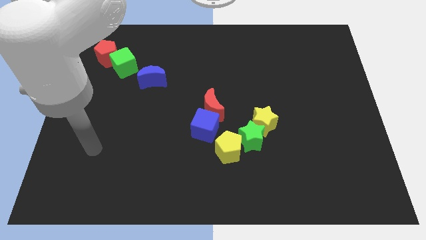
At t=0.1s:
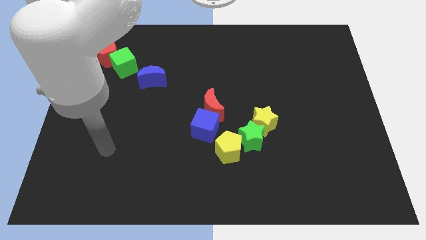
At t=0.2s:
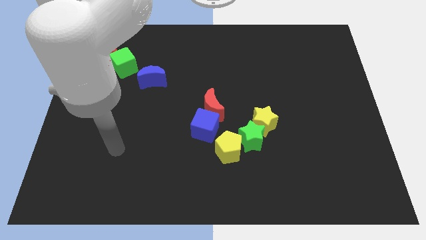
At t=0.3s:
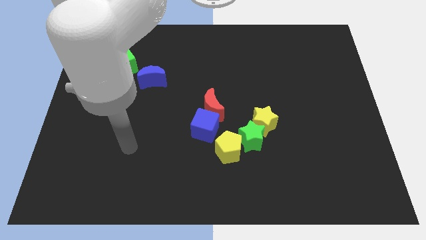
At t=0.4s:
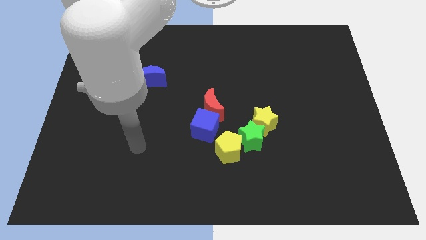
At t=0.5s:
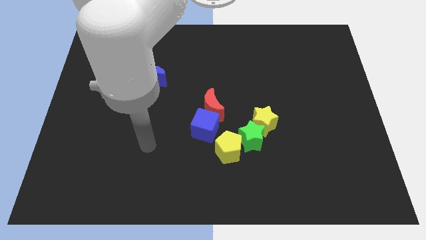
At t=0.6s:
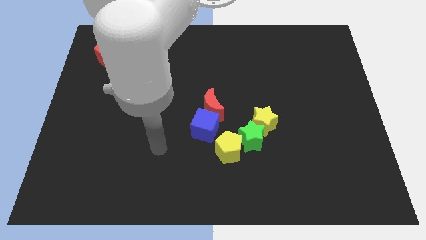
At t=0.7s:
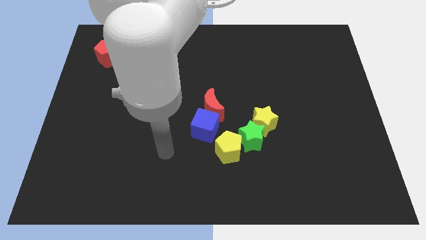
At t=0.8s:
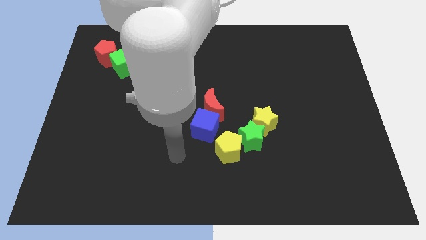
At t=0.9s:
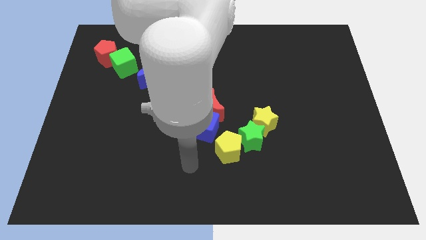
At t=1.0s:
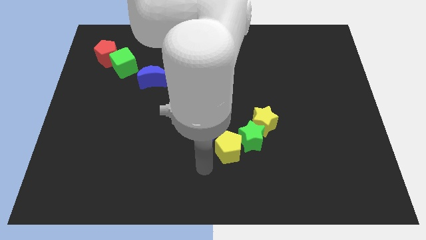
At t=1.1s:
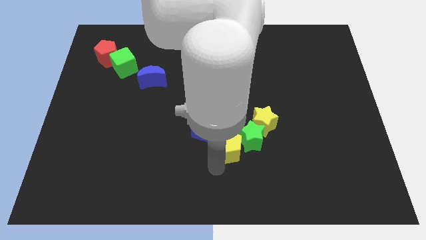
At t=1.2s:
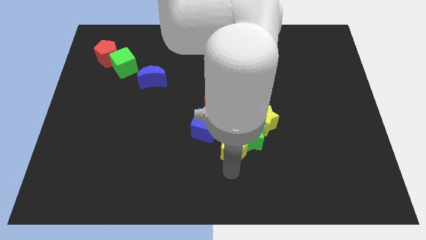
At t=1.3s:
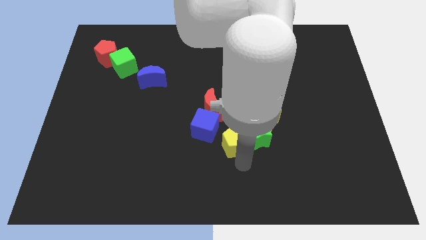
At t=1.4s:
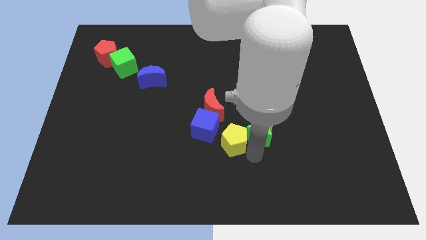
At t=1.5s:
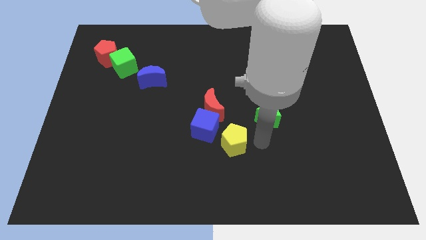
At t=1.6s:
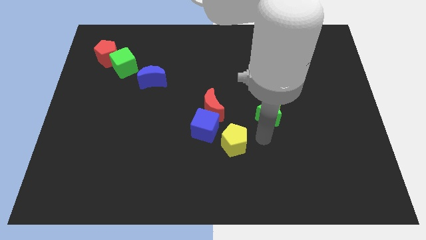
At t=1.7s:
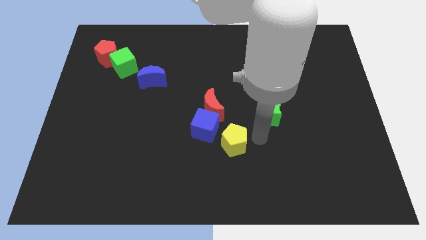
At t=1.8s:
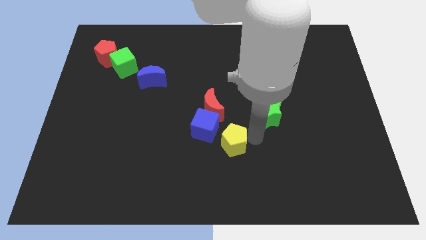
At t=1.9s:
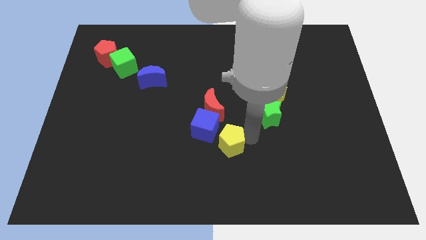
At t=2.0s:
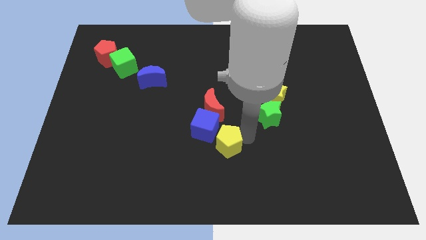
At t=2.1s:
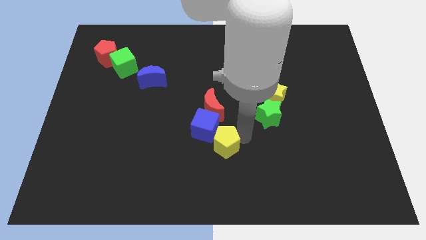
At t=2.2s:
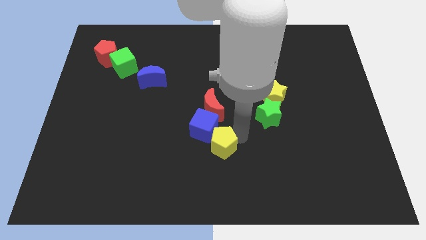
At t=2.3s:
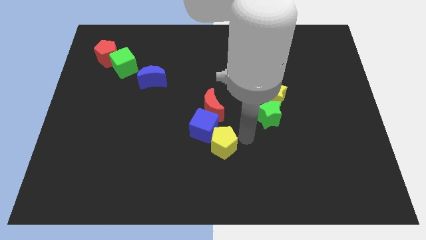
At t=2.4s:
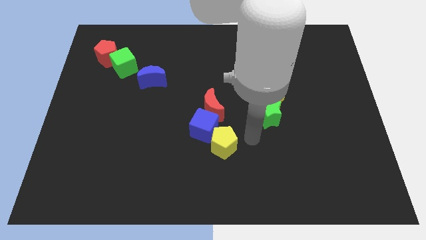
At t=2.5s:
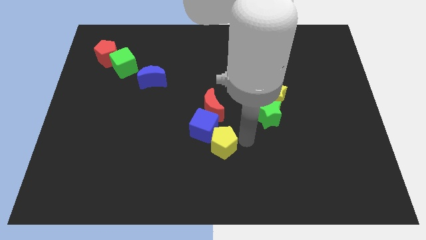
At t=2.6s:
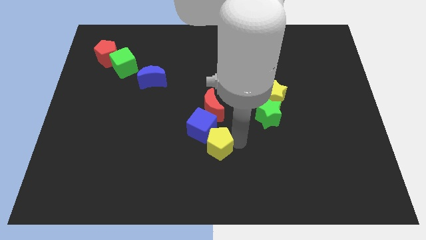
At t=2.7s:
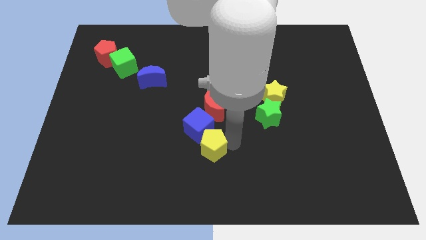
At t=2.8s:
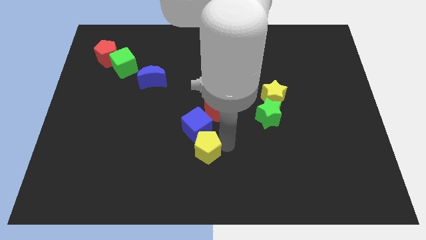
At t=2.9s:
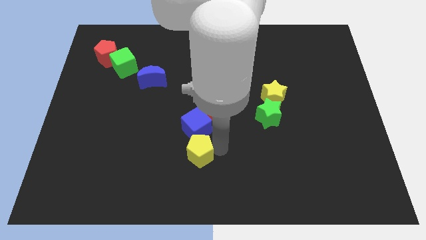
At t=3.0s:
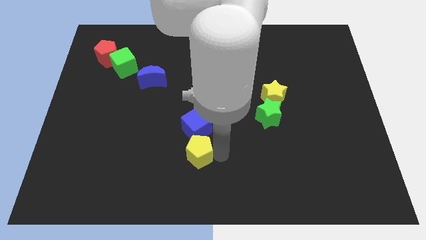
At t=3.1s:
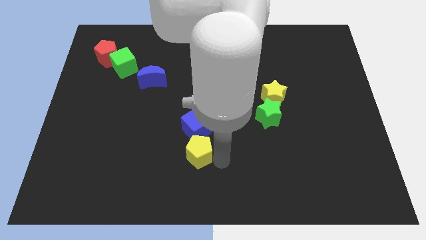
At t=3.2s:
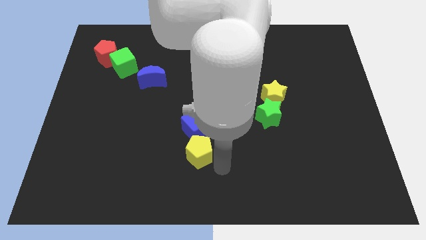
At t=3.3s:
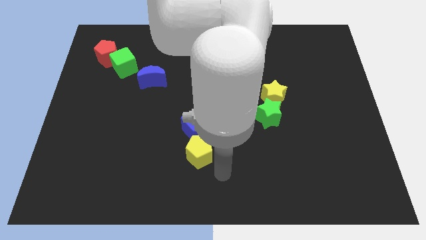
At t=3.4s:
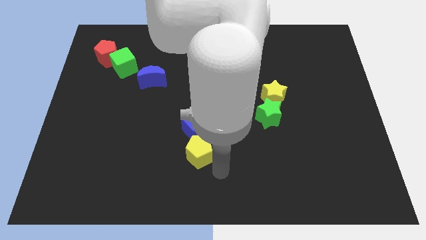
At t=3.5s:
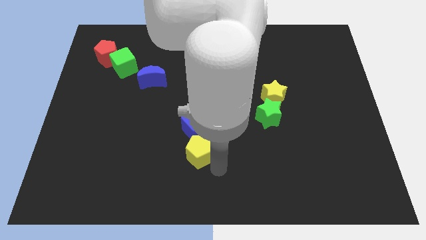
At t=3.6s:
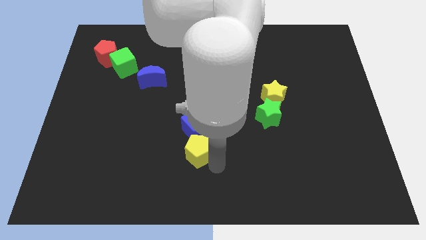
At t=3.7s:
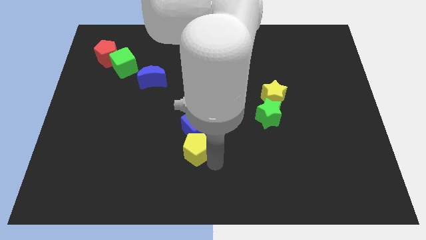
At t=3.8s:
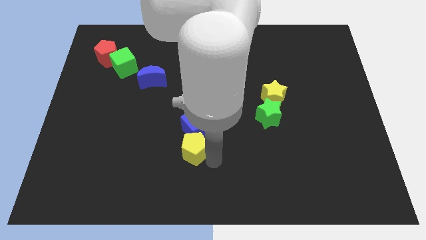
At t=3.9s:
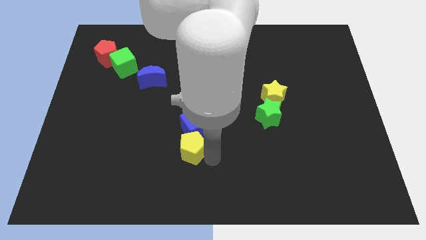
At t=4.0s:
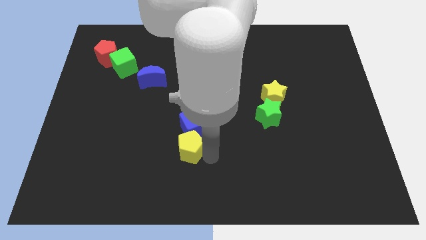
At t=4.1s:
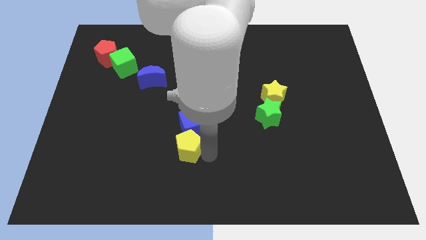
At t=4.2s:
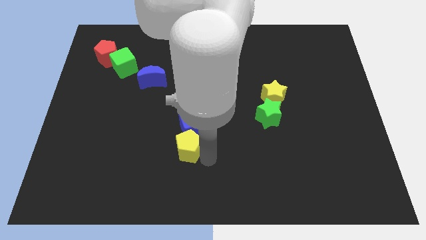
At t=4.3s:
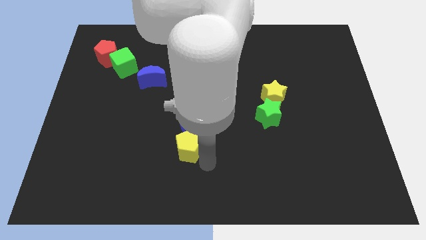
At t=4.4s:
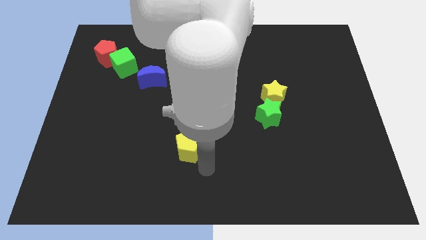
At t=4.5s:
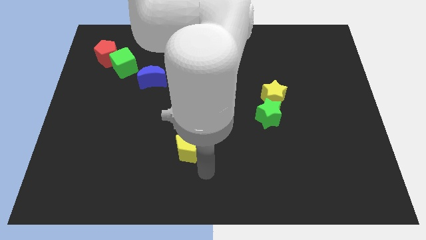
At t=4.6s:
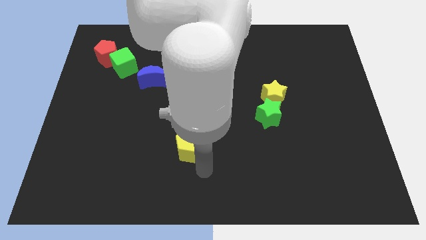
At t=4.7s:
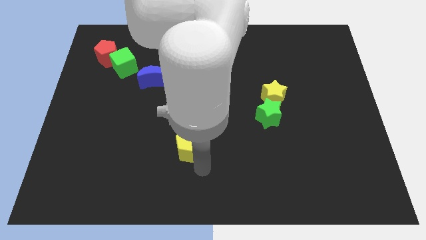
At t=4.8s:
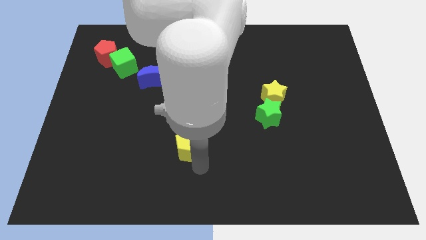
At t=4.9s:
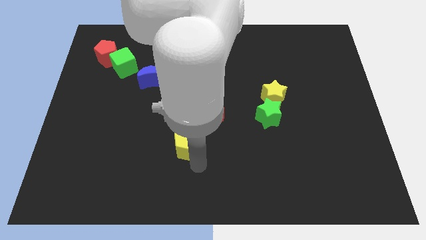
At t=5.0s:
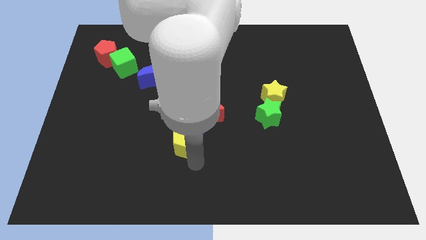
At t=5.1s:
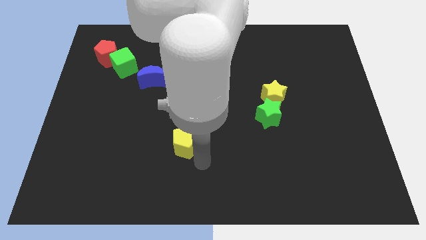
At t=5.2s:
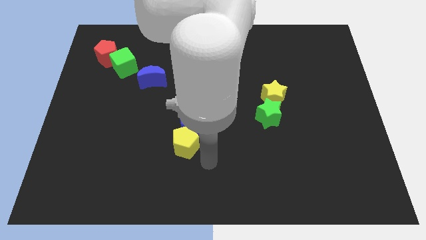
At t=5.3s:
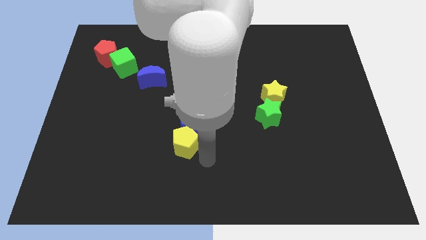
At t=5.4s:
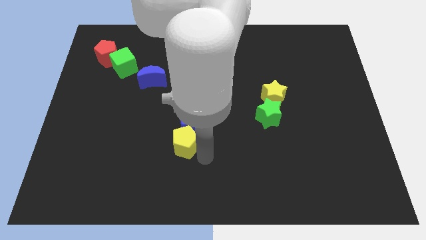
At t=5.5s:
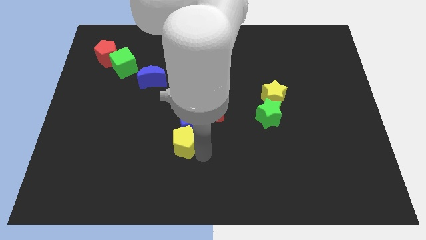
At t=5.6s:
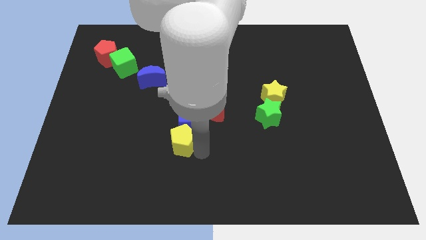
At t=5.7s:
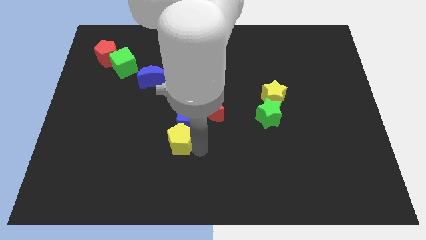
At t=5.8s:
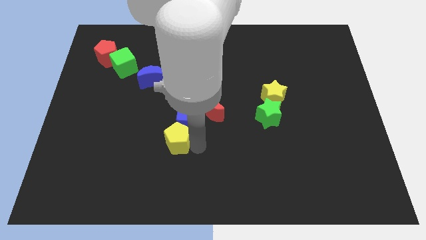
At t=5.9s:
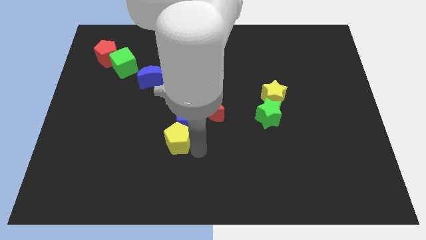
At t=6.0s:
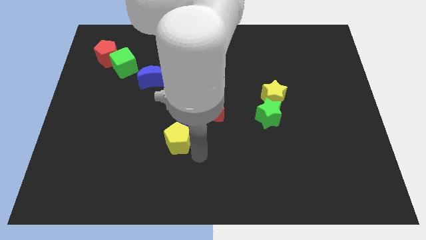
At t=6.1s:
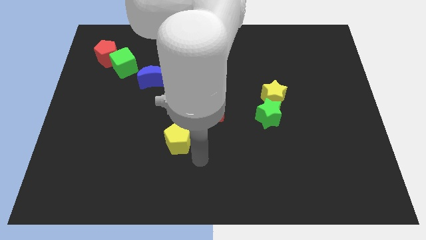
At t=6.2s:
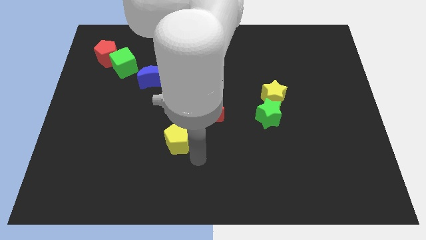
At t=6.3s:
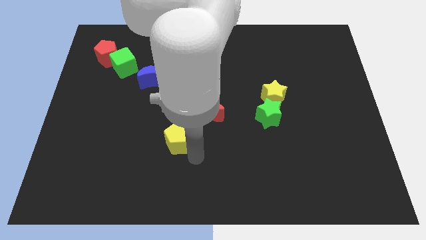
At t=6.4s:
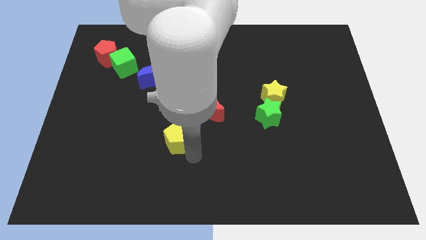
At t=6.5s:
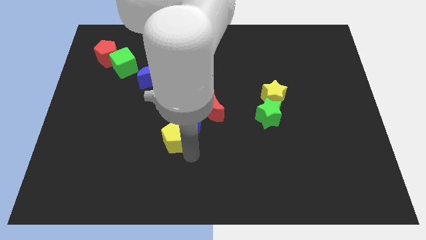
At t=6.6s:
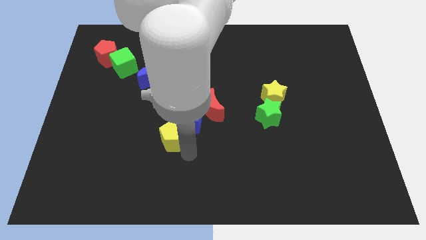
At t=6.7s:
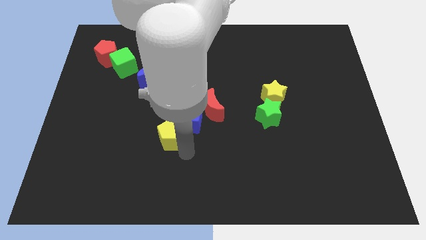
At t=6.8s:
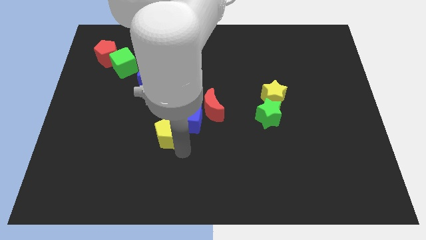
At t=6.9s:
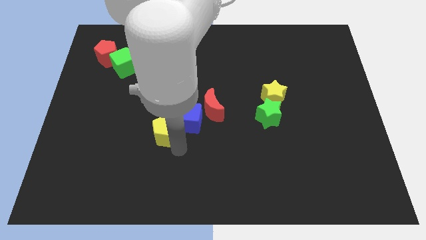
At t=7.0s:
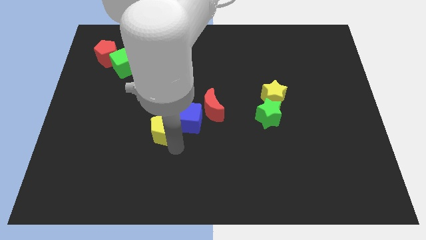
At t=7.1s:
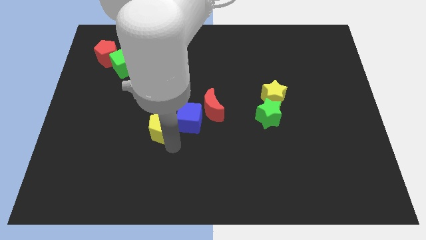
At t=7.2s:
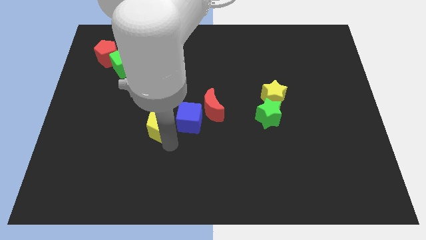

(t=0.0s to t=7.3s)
push the yellow pentagon below the blue moon
